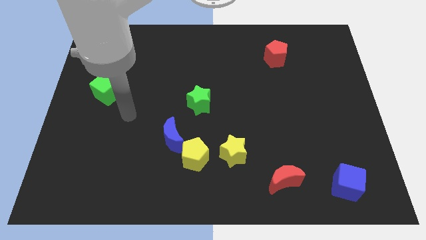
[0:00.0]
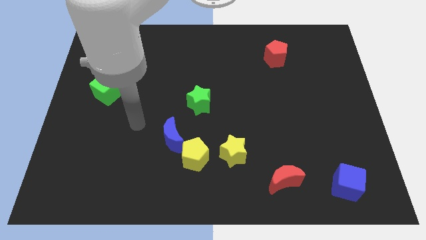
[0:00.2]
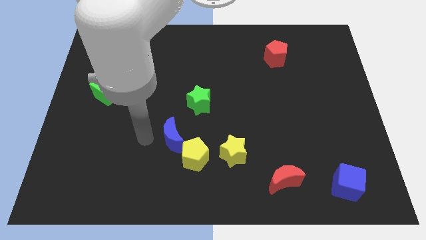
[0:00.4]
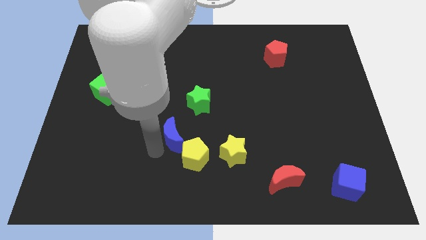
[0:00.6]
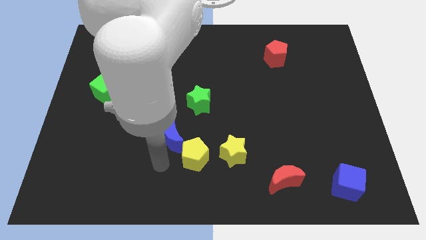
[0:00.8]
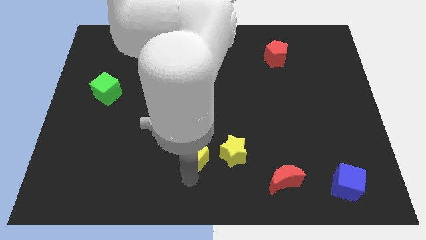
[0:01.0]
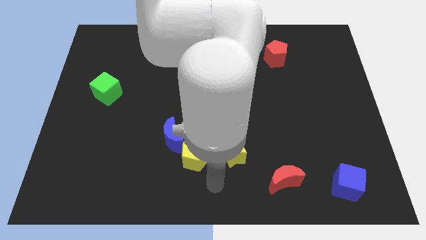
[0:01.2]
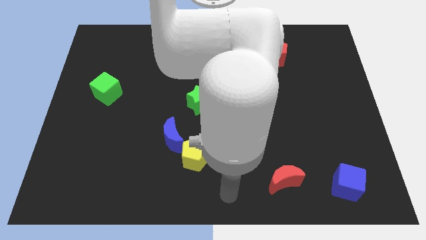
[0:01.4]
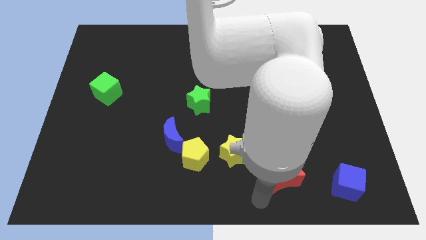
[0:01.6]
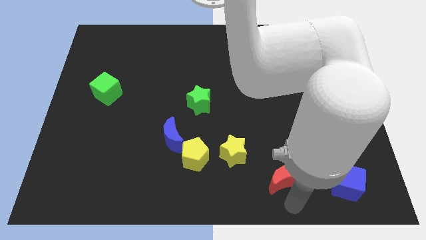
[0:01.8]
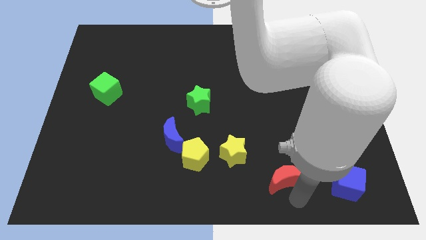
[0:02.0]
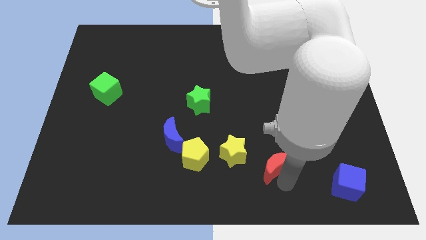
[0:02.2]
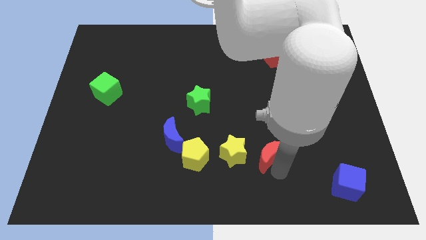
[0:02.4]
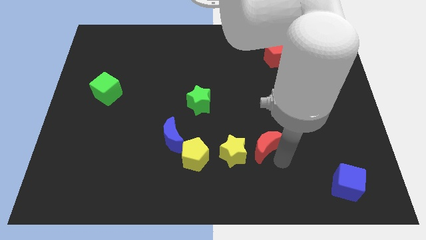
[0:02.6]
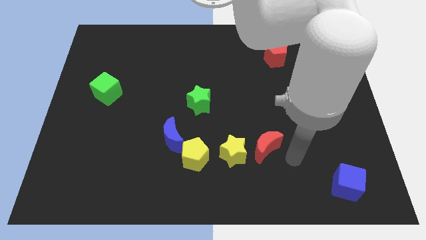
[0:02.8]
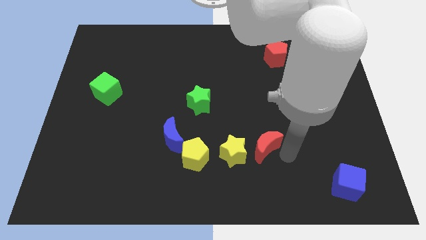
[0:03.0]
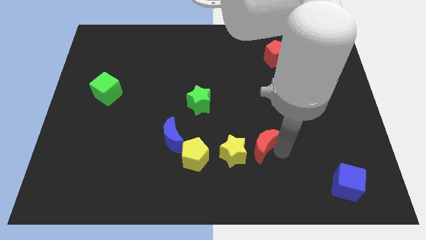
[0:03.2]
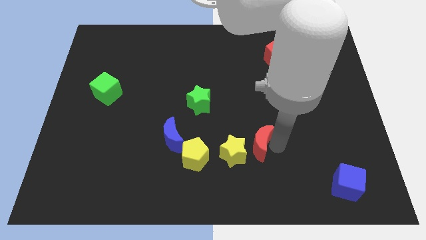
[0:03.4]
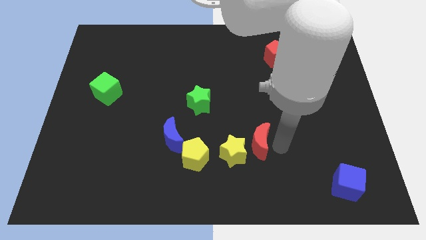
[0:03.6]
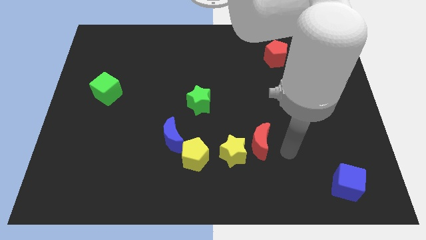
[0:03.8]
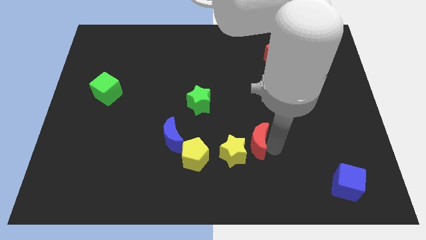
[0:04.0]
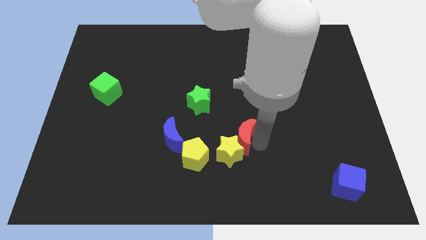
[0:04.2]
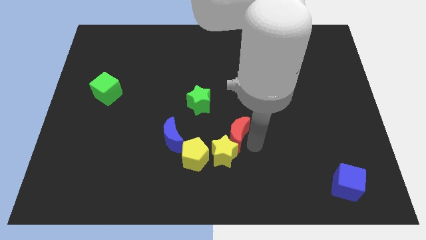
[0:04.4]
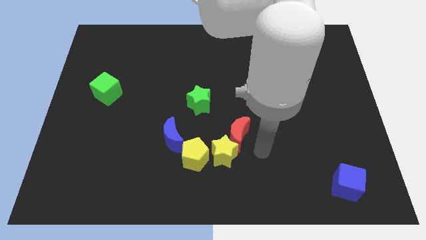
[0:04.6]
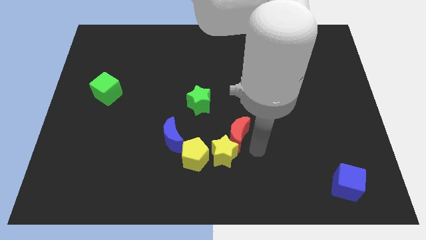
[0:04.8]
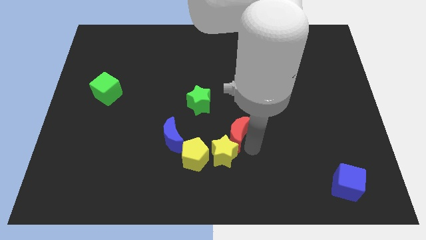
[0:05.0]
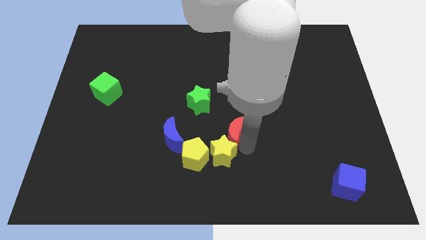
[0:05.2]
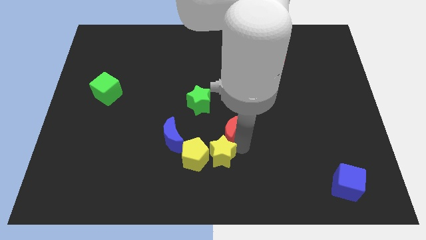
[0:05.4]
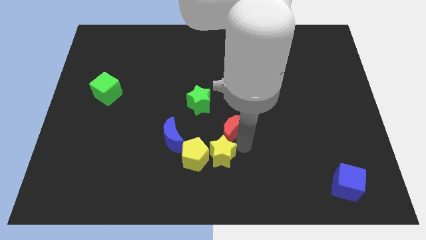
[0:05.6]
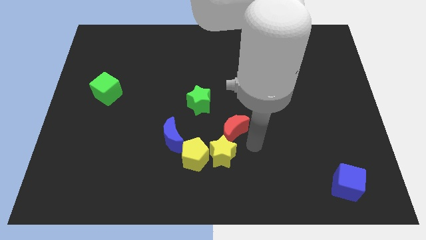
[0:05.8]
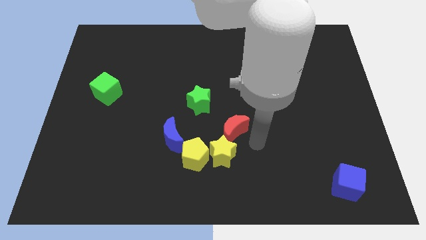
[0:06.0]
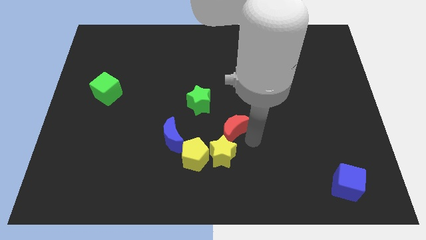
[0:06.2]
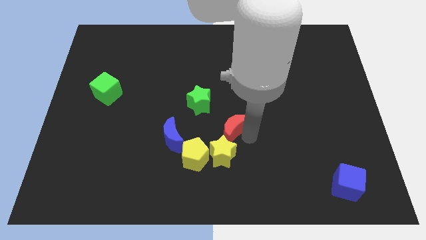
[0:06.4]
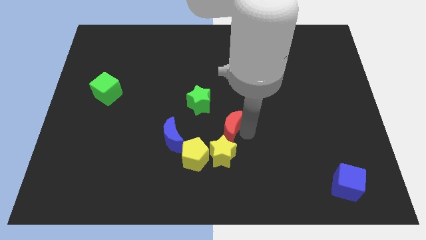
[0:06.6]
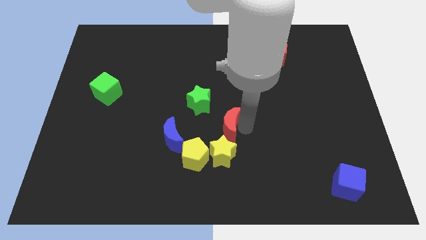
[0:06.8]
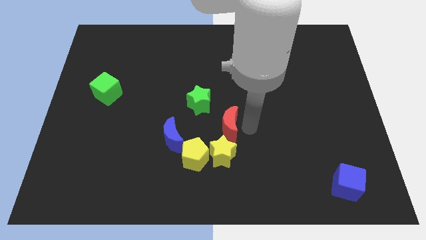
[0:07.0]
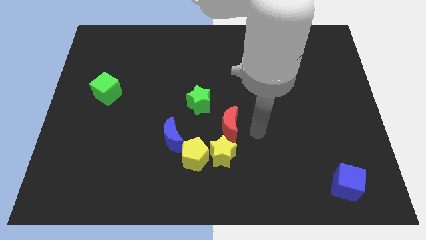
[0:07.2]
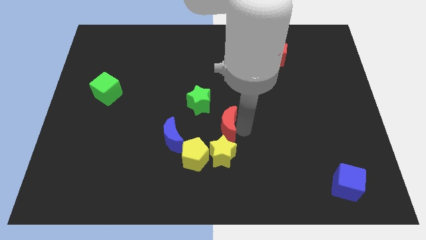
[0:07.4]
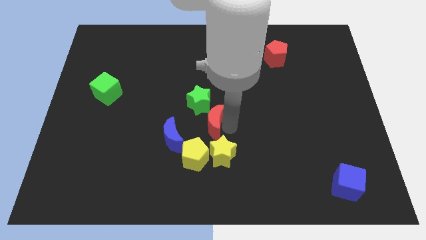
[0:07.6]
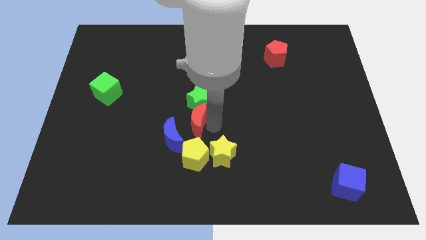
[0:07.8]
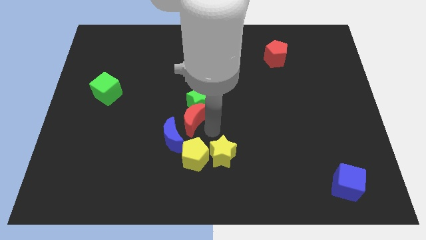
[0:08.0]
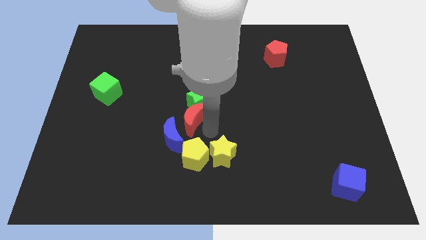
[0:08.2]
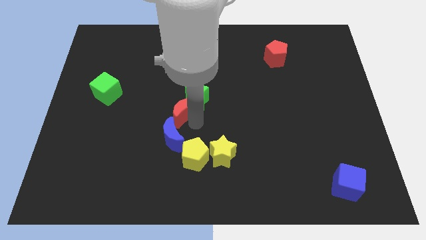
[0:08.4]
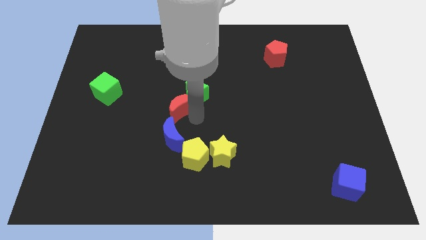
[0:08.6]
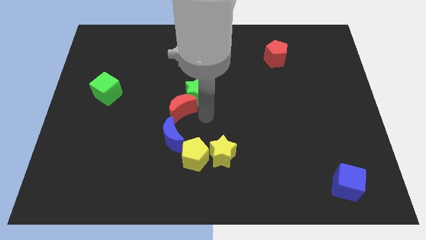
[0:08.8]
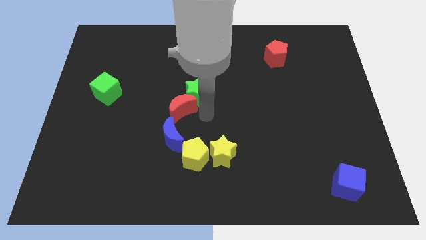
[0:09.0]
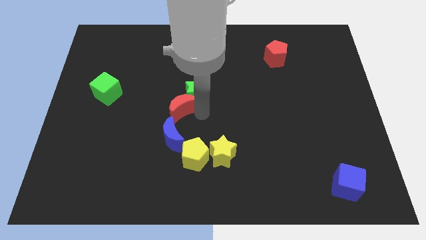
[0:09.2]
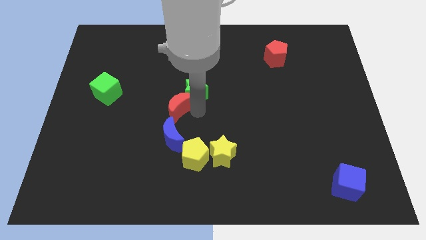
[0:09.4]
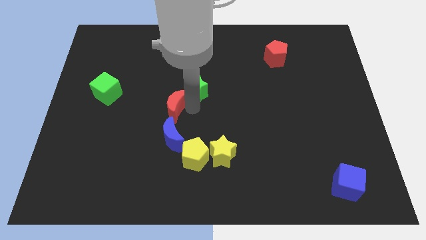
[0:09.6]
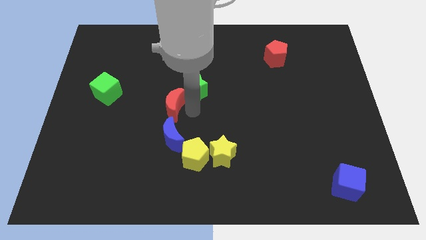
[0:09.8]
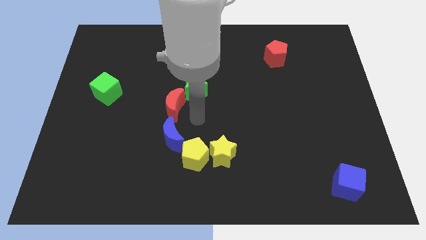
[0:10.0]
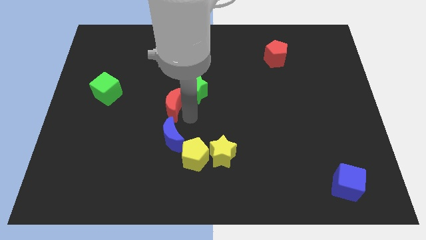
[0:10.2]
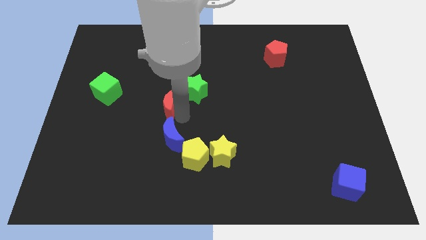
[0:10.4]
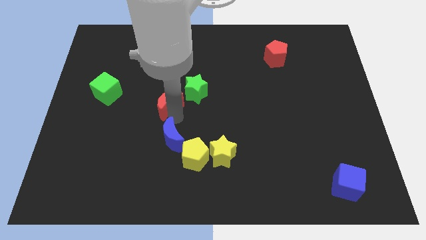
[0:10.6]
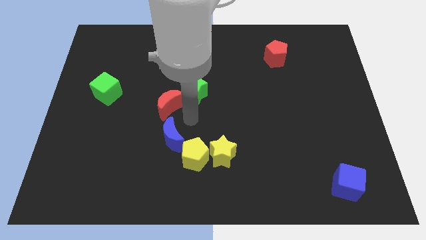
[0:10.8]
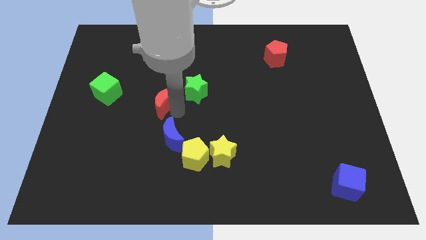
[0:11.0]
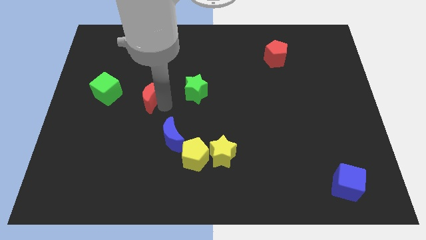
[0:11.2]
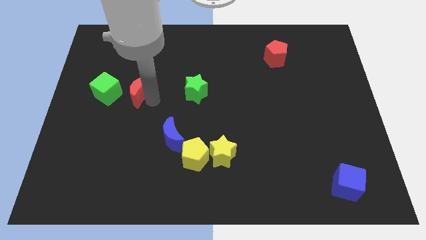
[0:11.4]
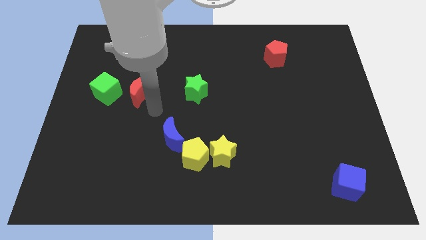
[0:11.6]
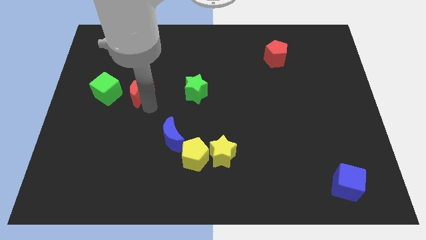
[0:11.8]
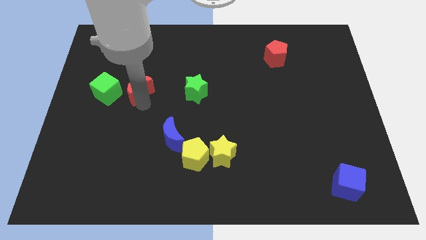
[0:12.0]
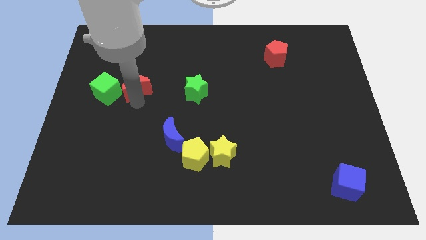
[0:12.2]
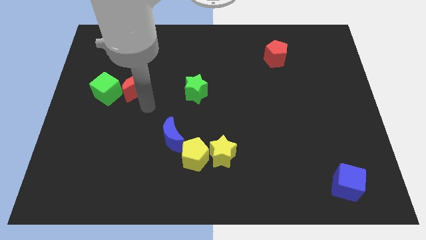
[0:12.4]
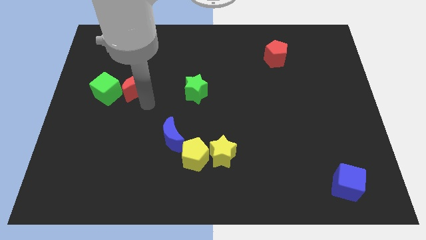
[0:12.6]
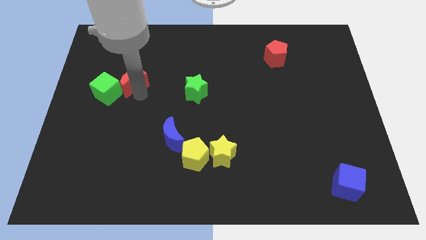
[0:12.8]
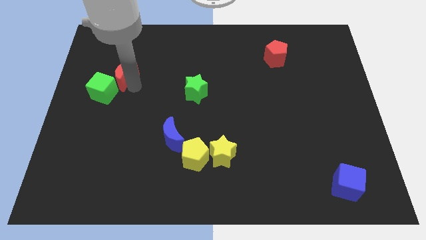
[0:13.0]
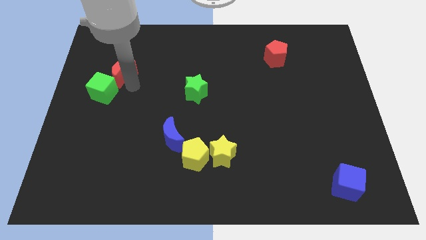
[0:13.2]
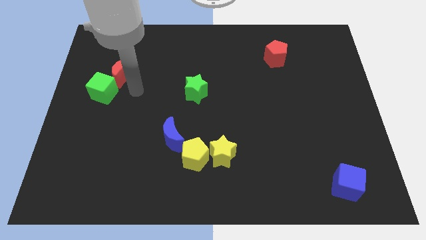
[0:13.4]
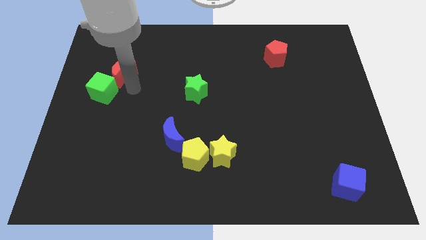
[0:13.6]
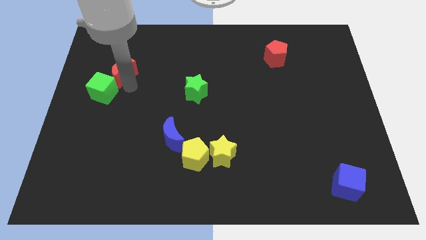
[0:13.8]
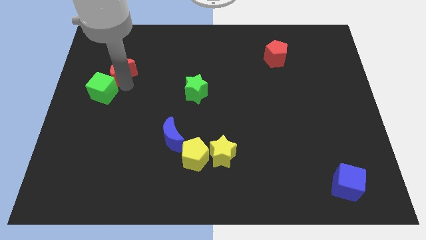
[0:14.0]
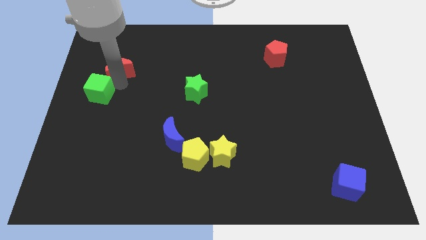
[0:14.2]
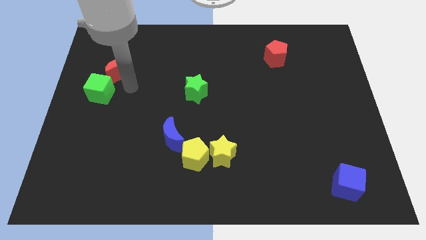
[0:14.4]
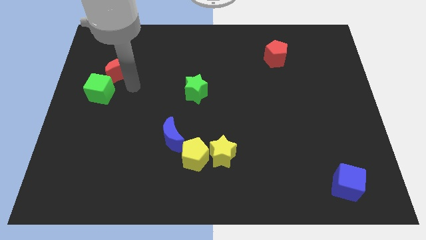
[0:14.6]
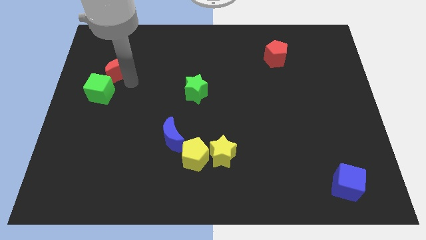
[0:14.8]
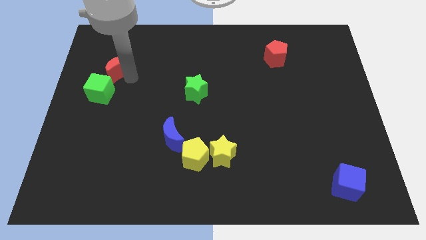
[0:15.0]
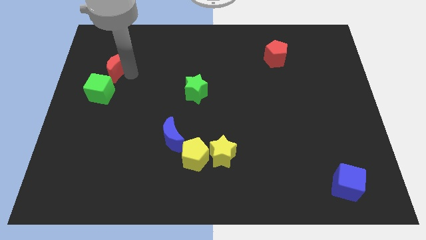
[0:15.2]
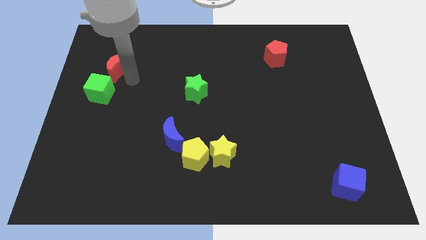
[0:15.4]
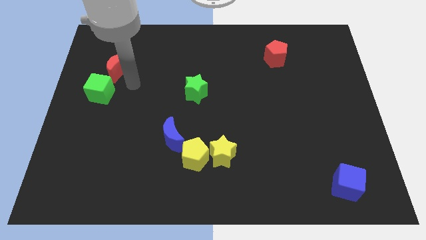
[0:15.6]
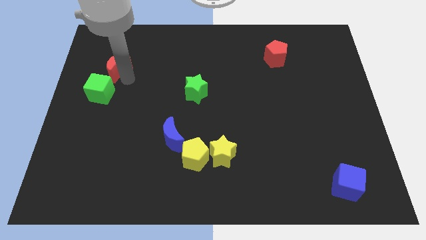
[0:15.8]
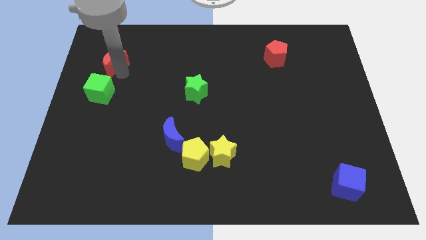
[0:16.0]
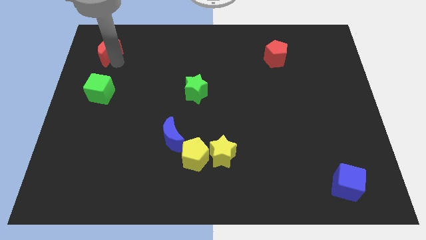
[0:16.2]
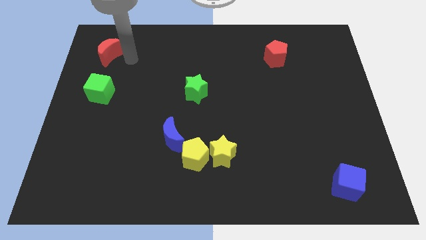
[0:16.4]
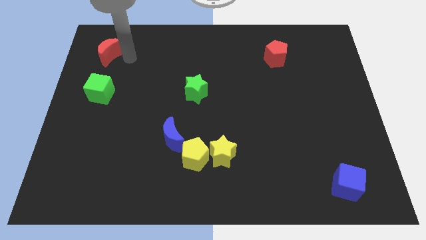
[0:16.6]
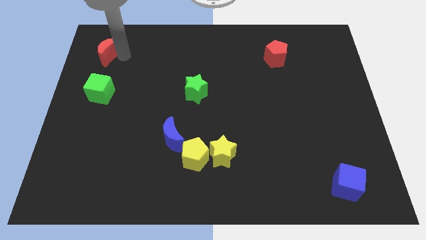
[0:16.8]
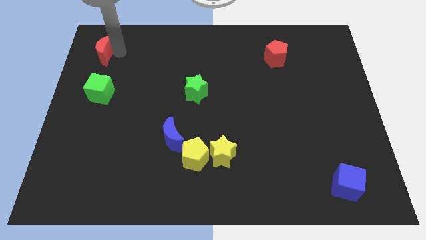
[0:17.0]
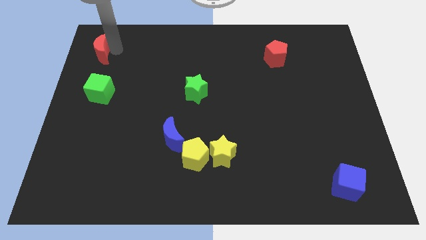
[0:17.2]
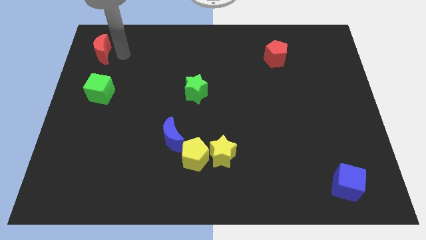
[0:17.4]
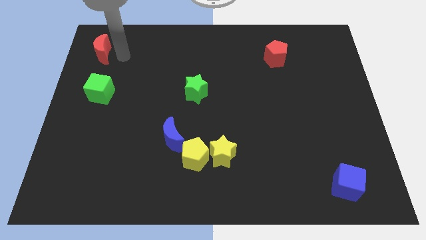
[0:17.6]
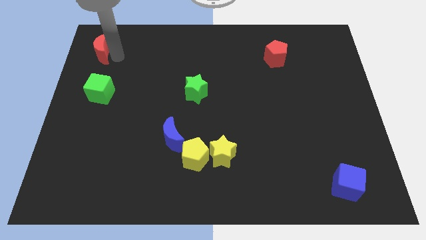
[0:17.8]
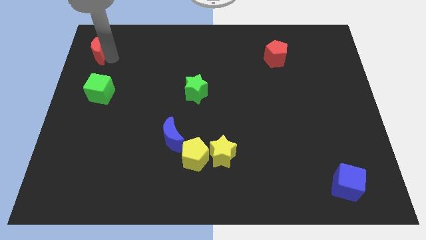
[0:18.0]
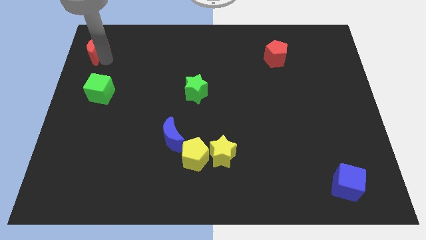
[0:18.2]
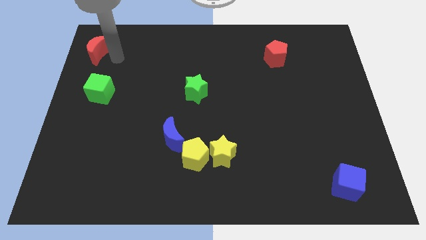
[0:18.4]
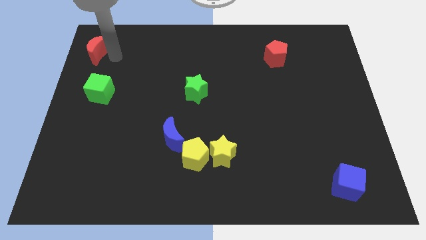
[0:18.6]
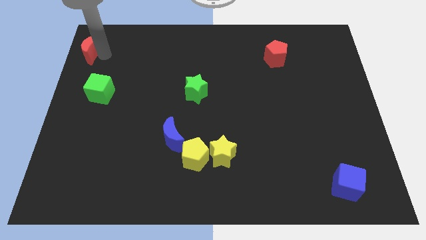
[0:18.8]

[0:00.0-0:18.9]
put the red moon to the top left corner
